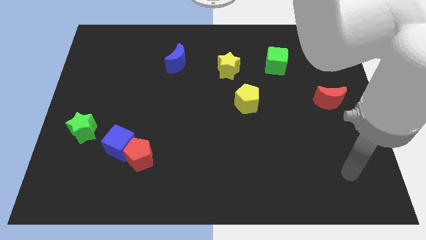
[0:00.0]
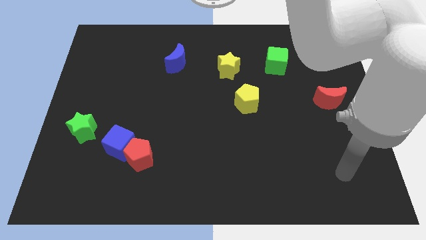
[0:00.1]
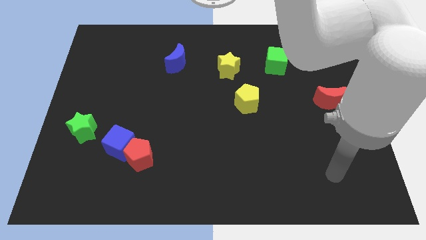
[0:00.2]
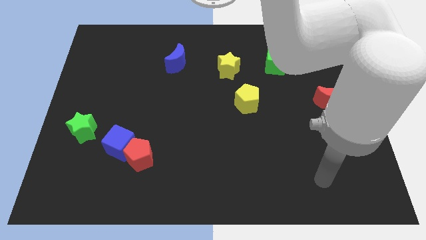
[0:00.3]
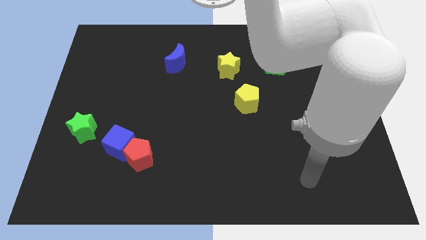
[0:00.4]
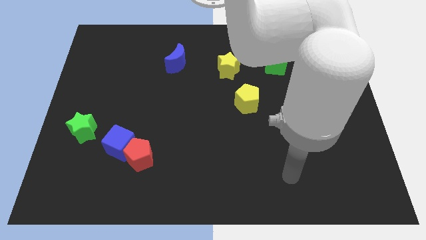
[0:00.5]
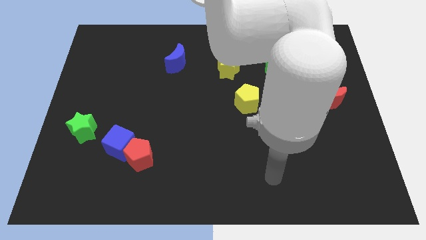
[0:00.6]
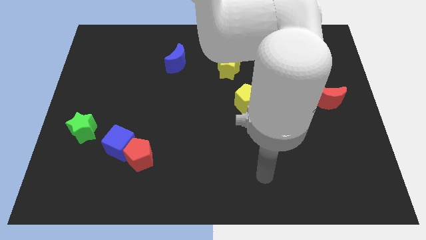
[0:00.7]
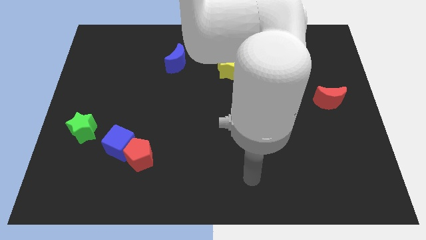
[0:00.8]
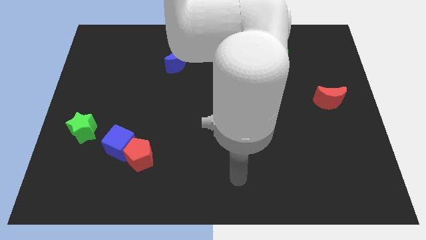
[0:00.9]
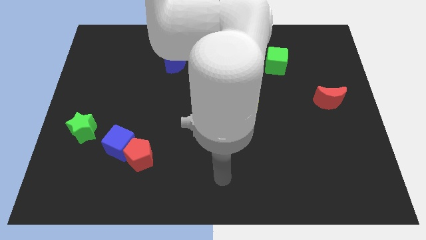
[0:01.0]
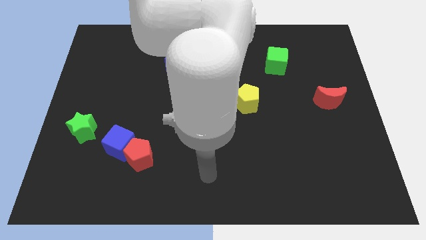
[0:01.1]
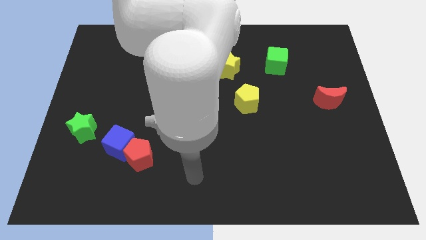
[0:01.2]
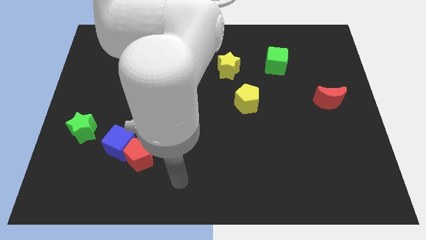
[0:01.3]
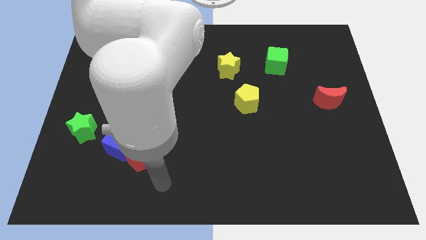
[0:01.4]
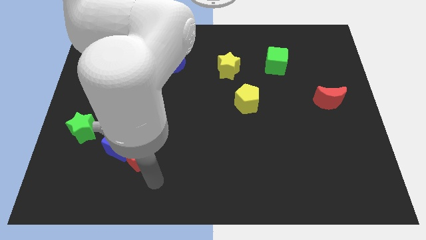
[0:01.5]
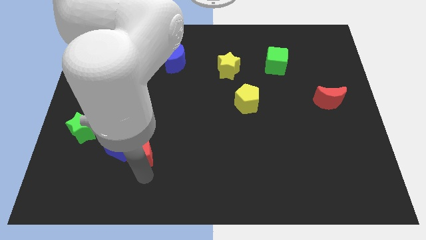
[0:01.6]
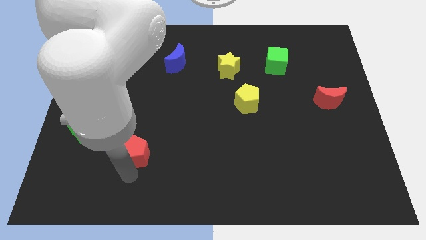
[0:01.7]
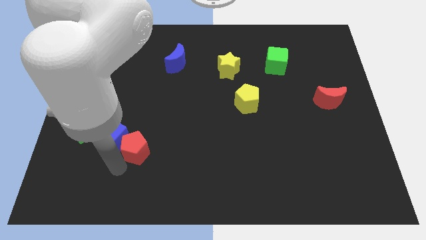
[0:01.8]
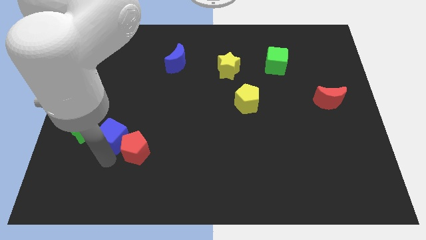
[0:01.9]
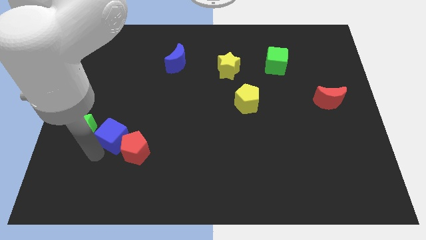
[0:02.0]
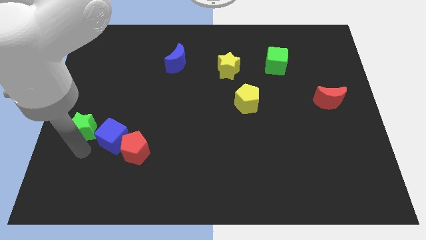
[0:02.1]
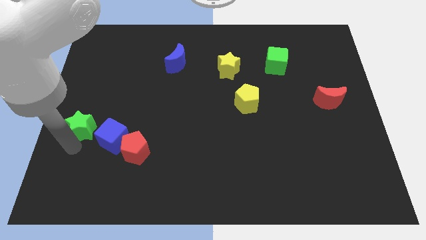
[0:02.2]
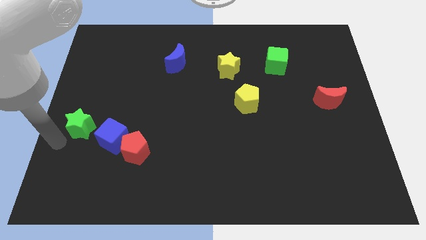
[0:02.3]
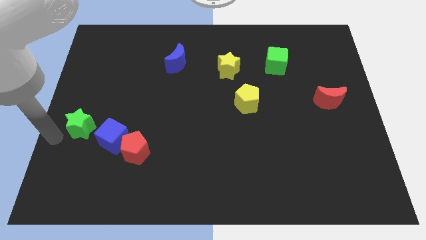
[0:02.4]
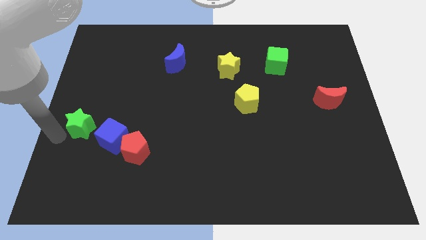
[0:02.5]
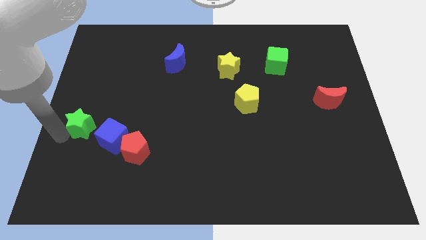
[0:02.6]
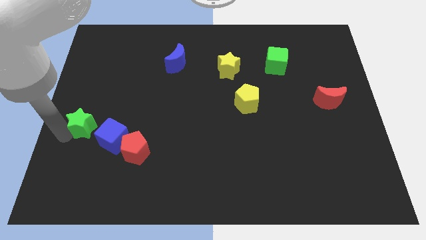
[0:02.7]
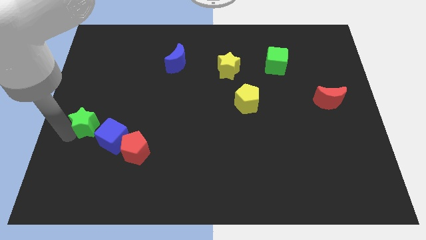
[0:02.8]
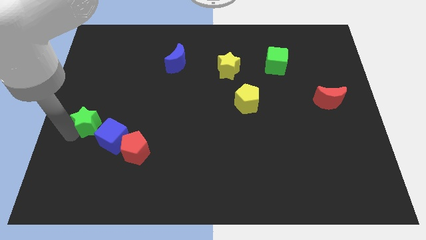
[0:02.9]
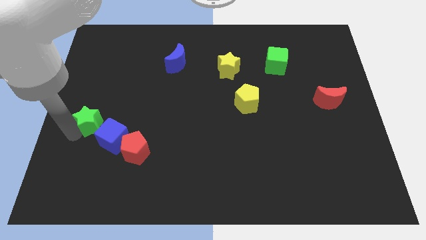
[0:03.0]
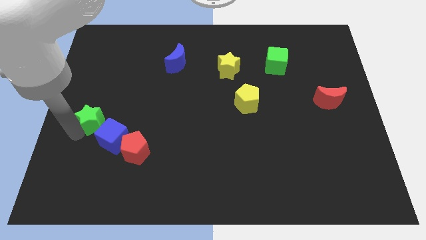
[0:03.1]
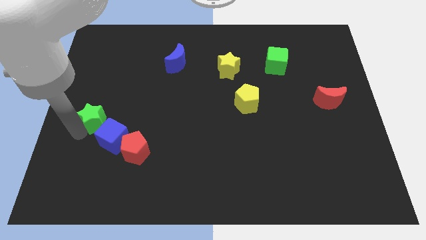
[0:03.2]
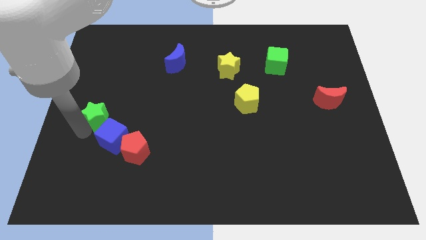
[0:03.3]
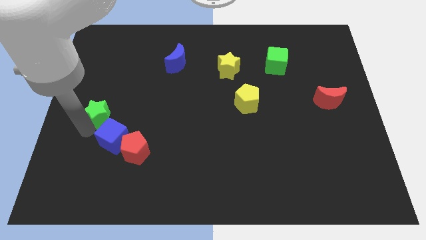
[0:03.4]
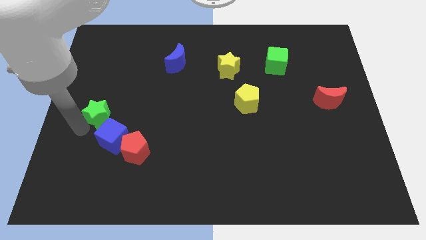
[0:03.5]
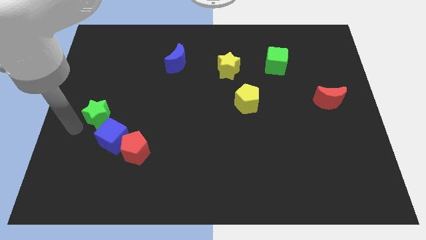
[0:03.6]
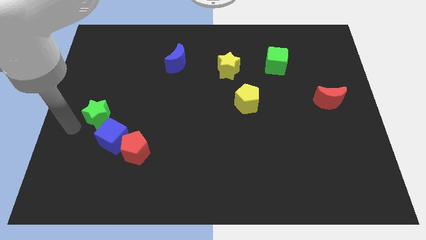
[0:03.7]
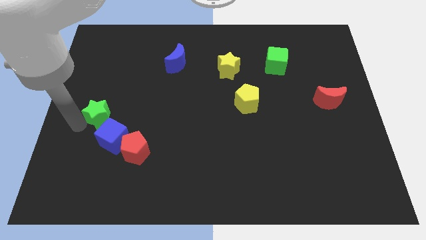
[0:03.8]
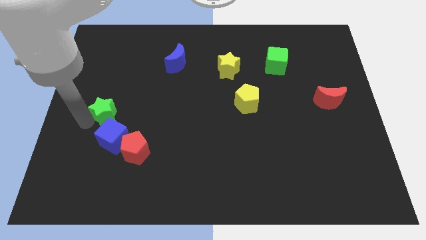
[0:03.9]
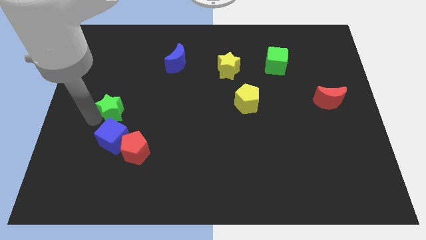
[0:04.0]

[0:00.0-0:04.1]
slide the green star a bit up and then right

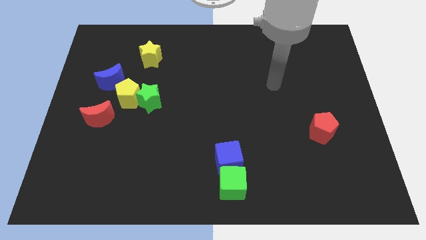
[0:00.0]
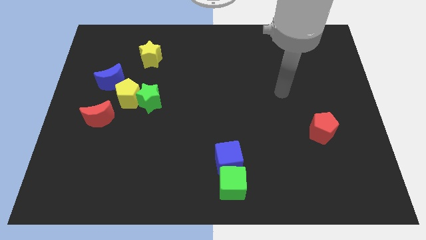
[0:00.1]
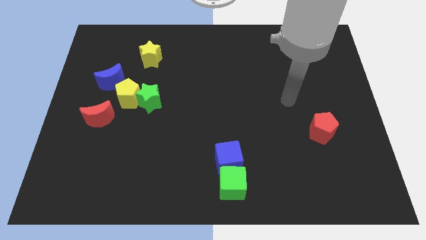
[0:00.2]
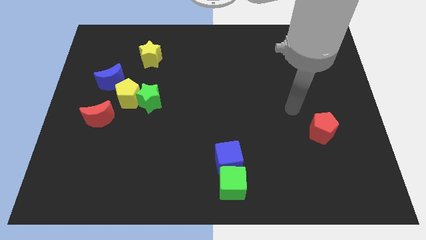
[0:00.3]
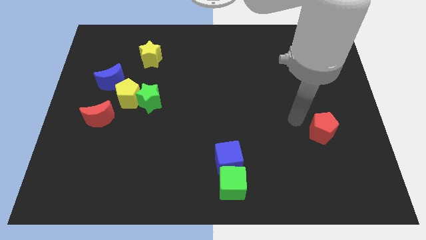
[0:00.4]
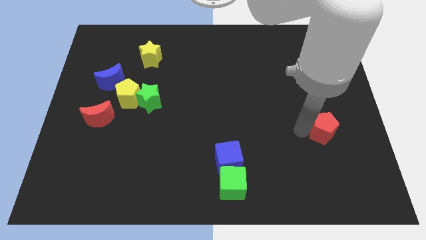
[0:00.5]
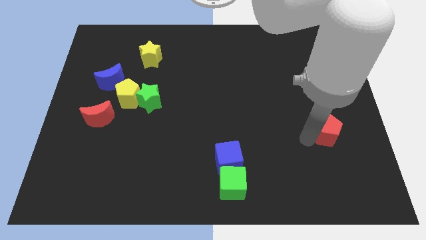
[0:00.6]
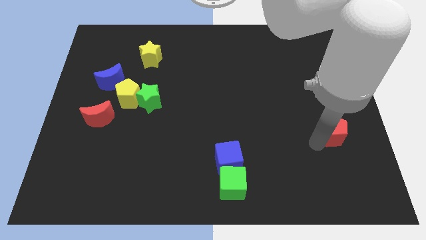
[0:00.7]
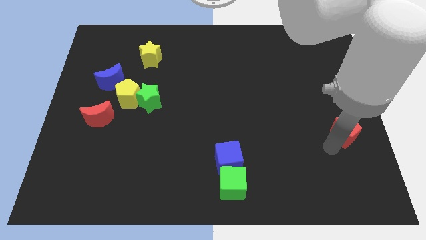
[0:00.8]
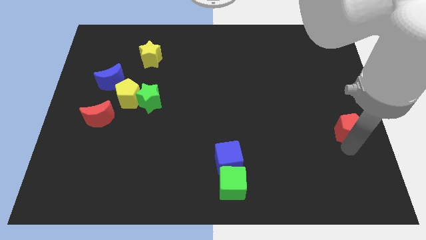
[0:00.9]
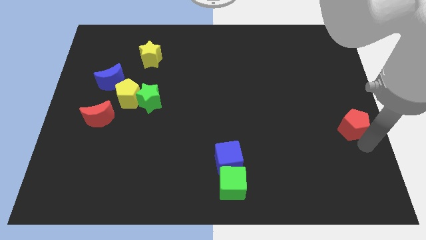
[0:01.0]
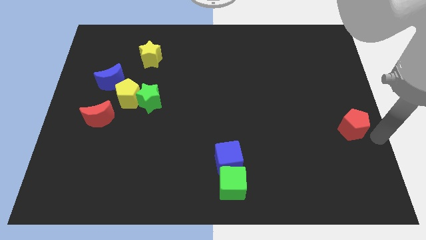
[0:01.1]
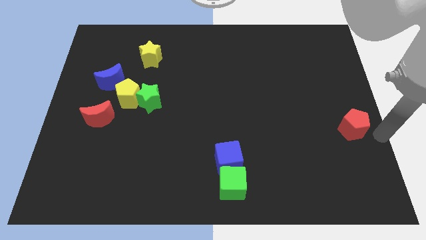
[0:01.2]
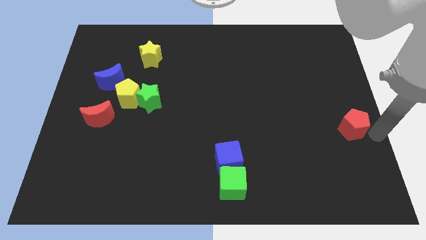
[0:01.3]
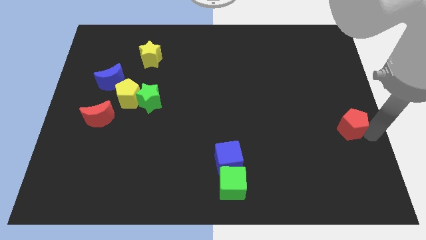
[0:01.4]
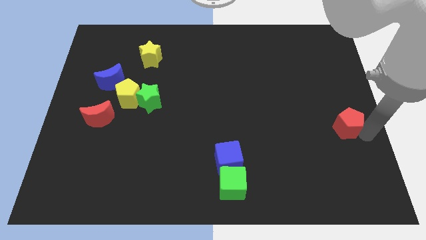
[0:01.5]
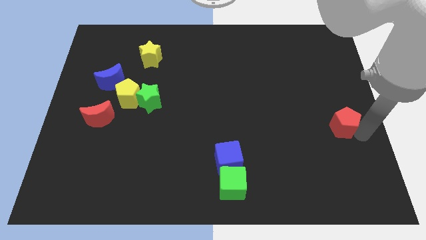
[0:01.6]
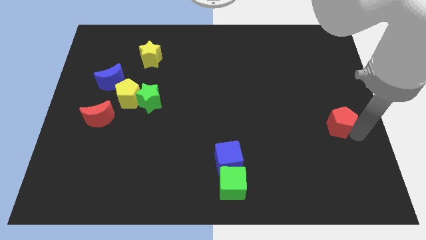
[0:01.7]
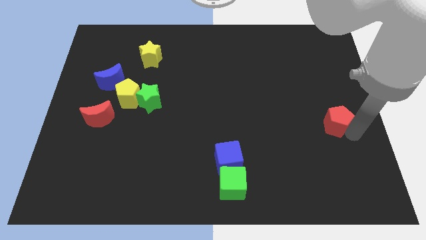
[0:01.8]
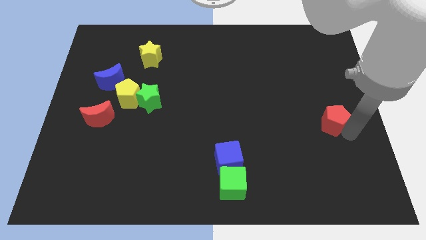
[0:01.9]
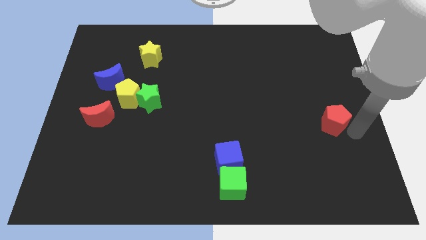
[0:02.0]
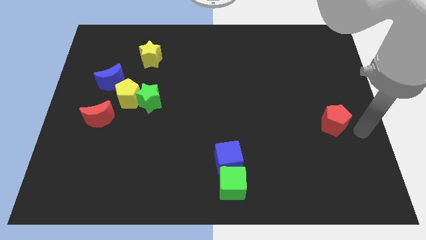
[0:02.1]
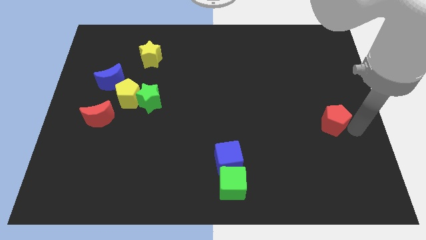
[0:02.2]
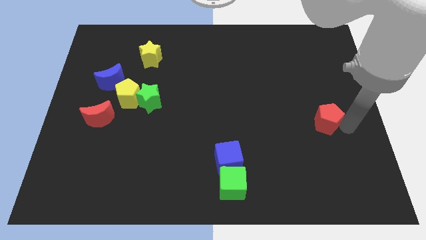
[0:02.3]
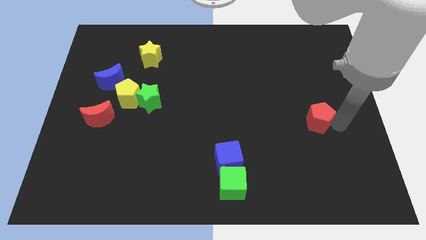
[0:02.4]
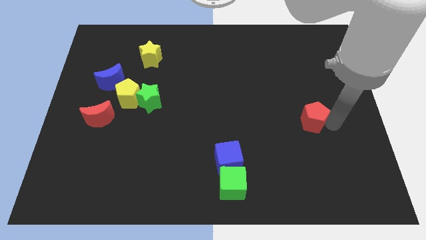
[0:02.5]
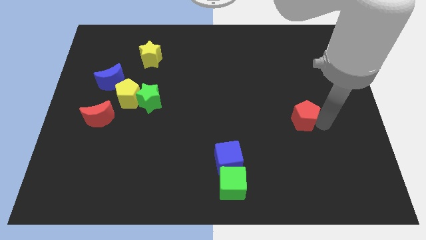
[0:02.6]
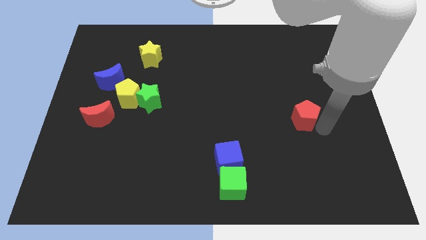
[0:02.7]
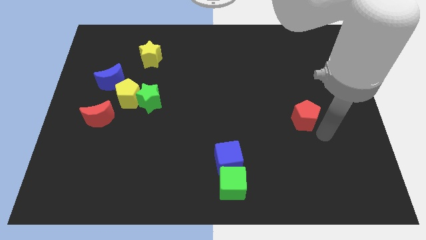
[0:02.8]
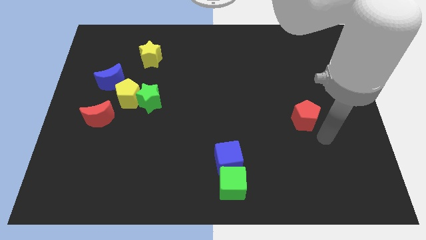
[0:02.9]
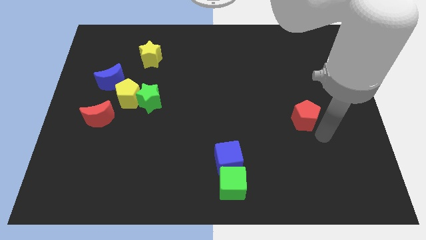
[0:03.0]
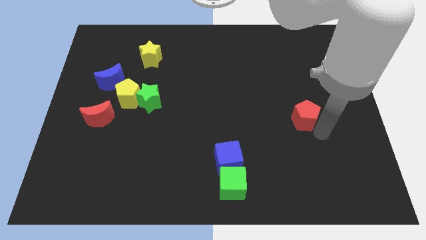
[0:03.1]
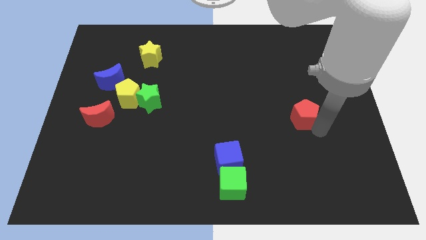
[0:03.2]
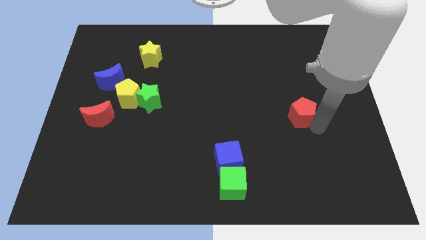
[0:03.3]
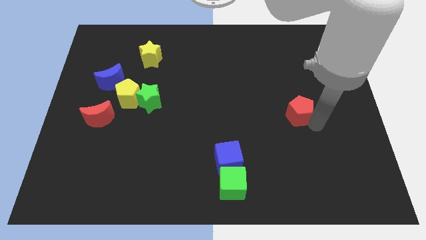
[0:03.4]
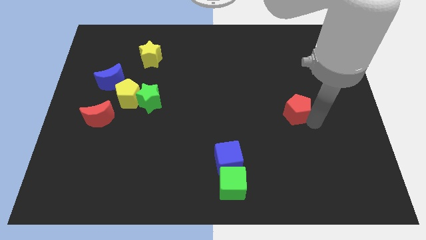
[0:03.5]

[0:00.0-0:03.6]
slightly push the red pentagon diagonally up and left

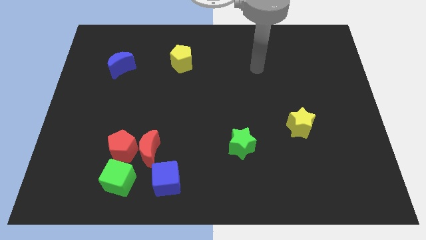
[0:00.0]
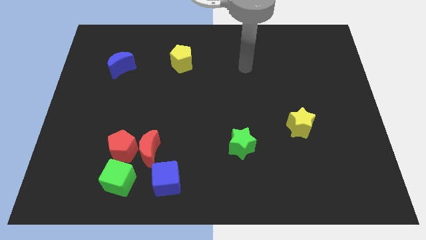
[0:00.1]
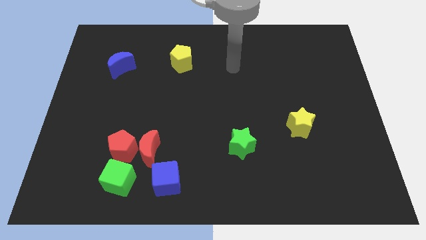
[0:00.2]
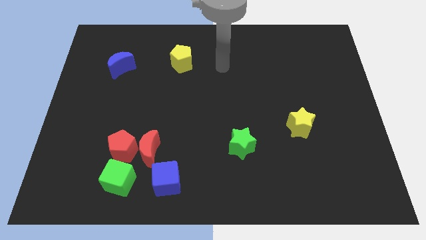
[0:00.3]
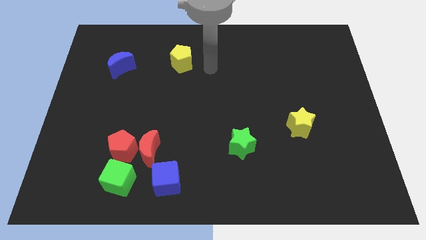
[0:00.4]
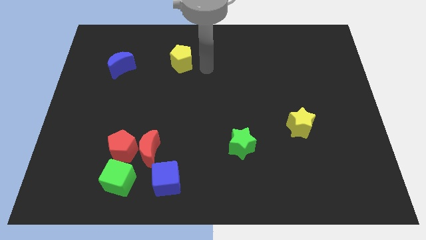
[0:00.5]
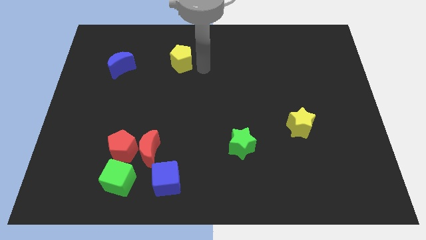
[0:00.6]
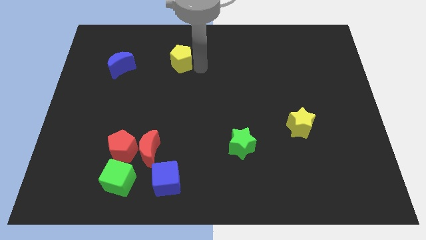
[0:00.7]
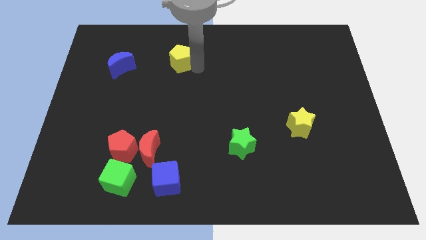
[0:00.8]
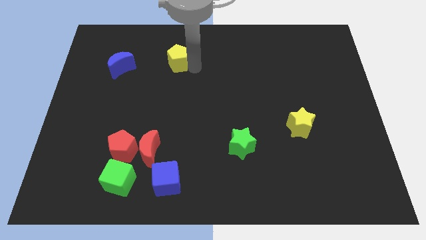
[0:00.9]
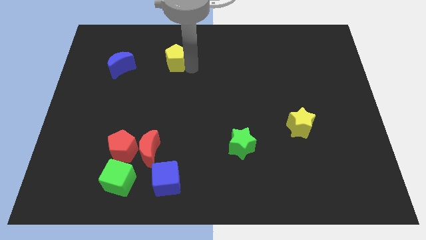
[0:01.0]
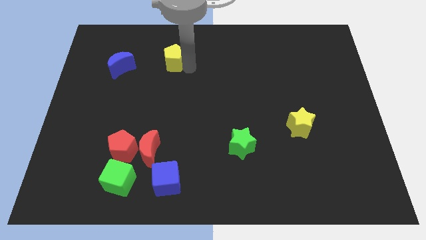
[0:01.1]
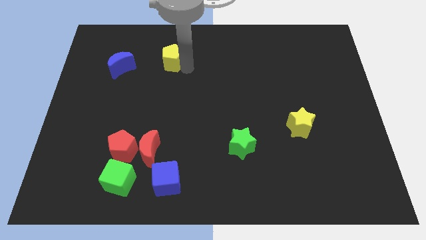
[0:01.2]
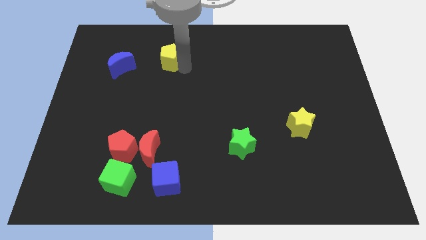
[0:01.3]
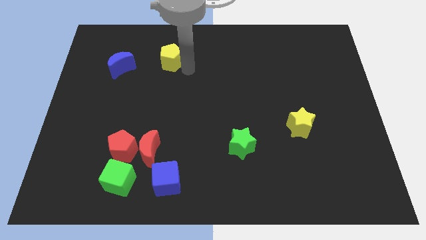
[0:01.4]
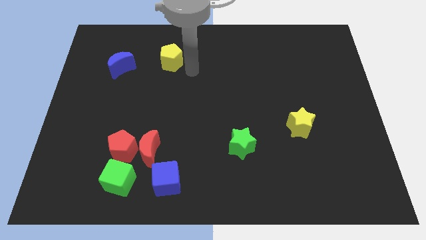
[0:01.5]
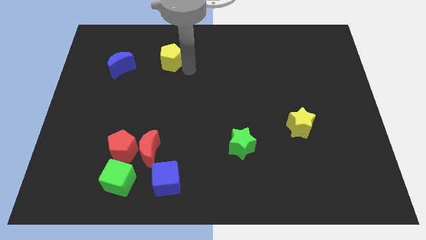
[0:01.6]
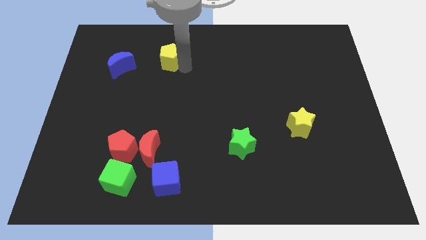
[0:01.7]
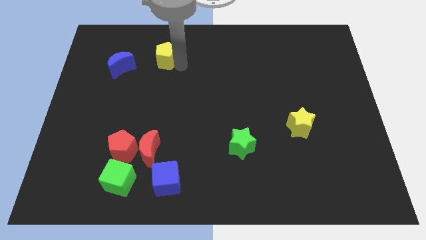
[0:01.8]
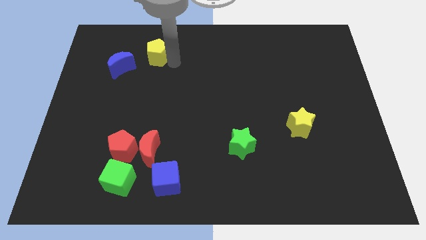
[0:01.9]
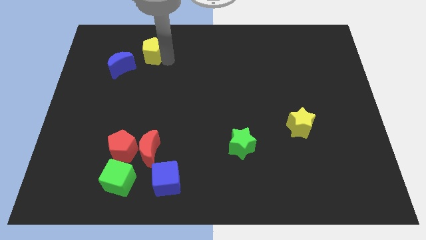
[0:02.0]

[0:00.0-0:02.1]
push the yellow pentagon to the left a bit
